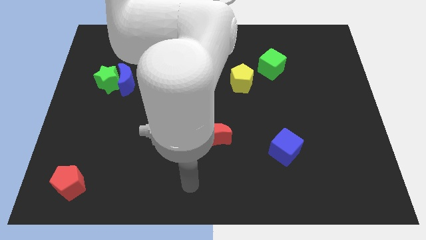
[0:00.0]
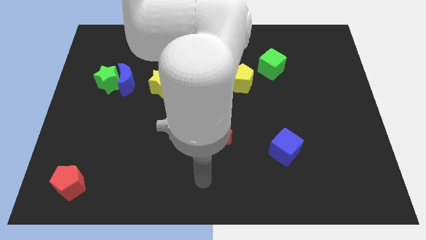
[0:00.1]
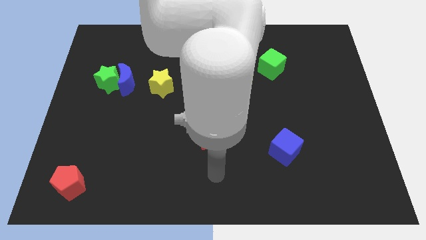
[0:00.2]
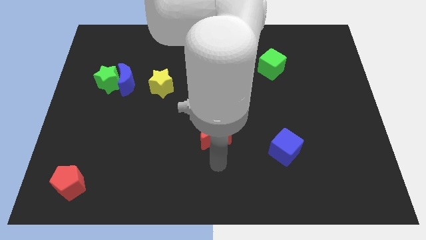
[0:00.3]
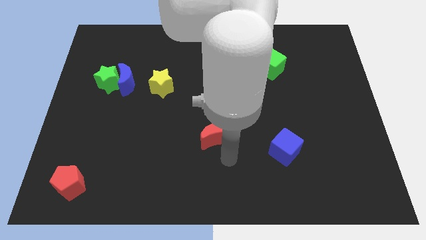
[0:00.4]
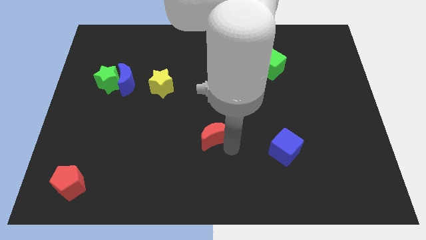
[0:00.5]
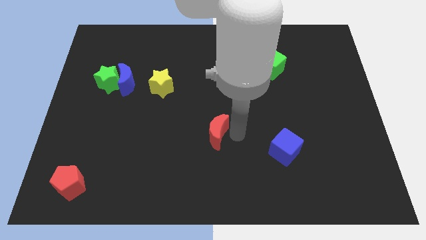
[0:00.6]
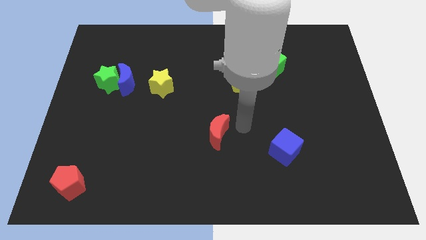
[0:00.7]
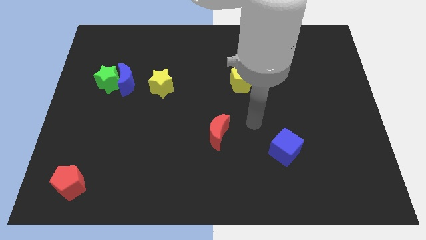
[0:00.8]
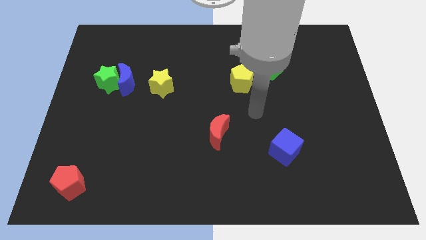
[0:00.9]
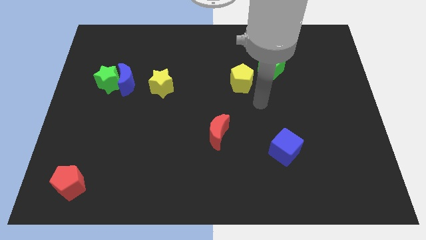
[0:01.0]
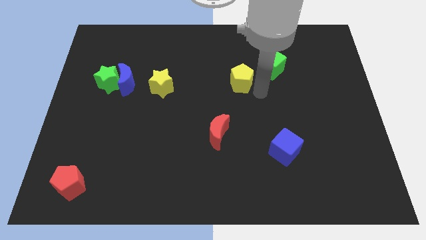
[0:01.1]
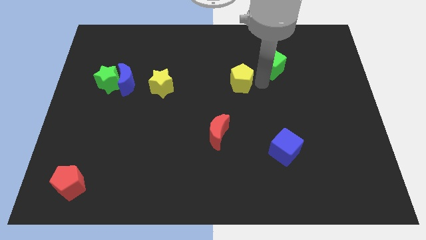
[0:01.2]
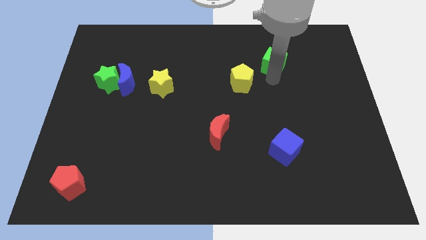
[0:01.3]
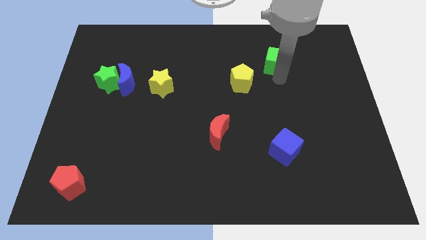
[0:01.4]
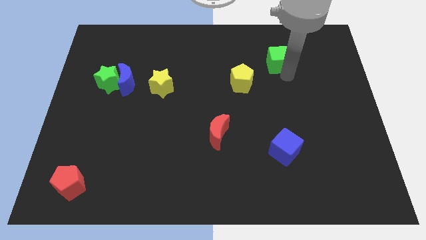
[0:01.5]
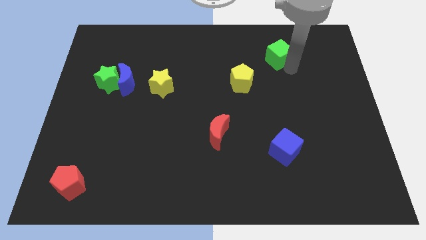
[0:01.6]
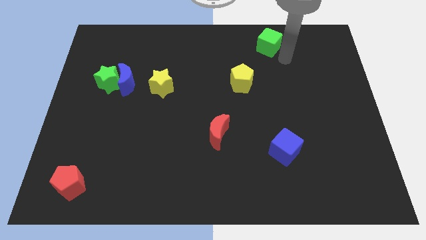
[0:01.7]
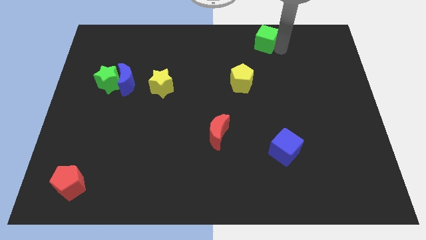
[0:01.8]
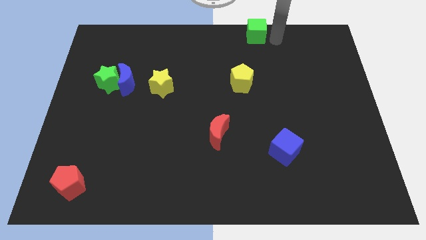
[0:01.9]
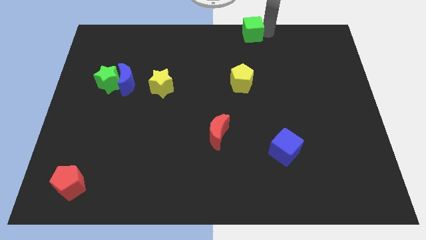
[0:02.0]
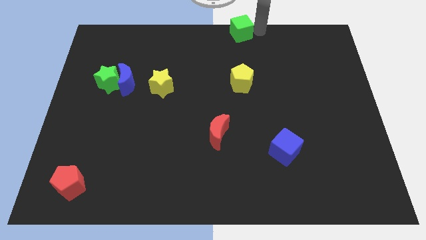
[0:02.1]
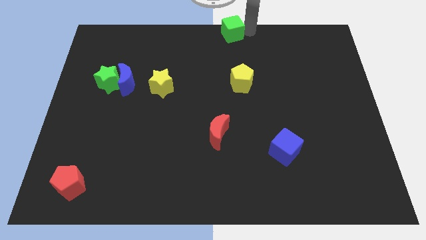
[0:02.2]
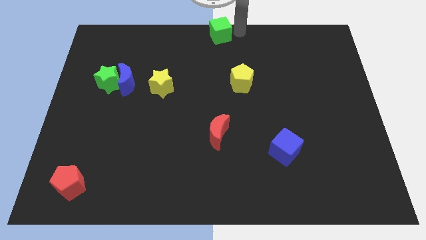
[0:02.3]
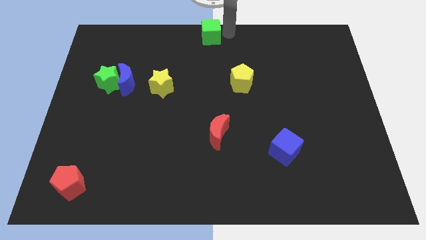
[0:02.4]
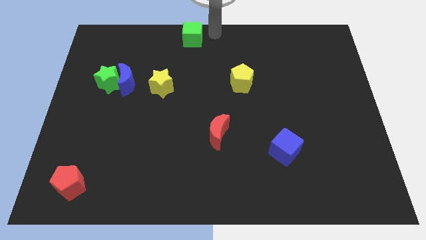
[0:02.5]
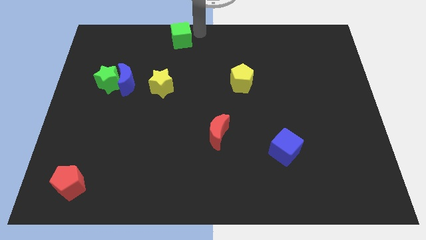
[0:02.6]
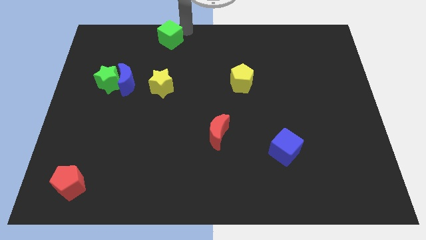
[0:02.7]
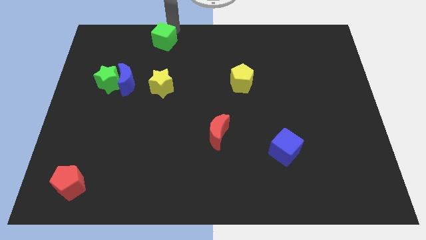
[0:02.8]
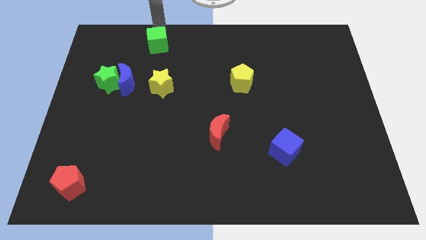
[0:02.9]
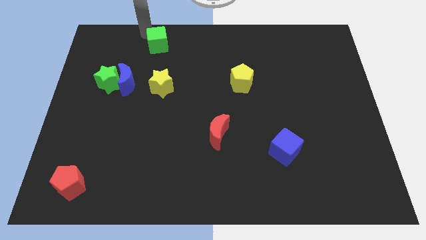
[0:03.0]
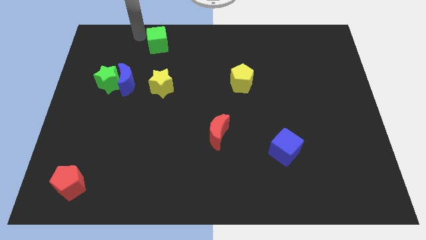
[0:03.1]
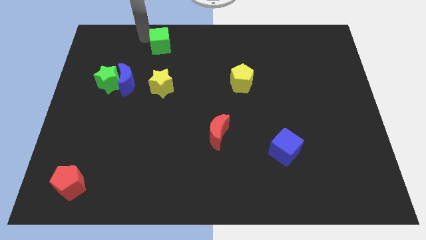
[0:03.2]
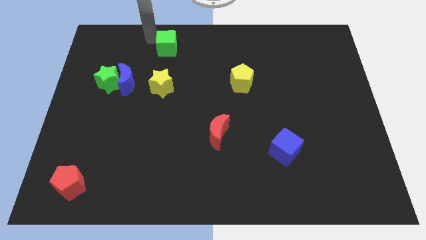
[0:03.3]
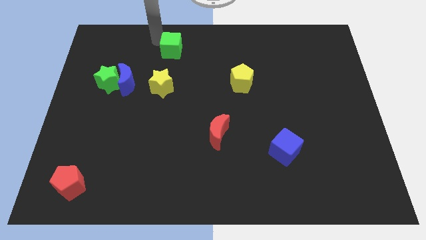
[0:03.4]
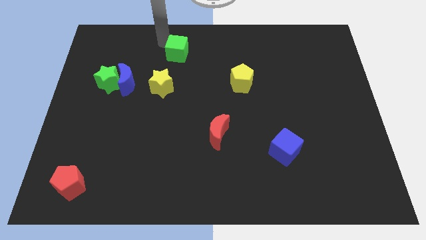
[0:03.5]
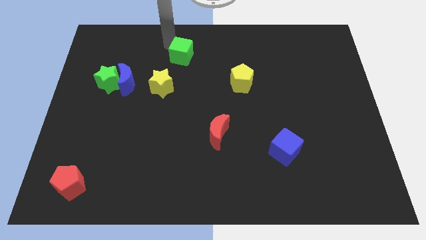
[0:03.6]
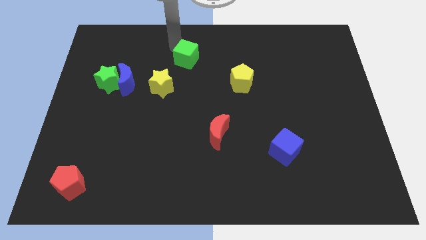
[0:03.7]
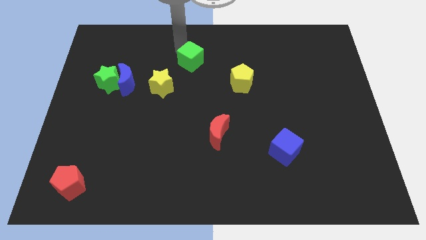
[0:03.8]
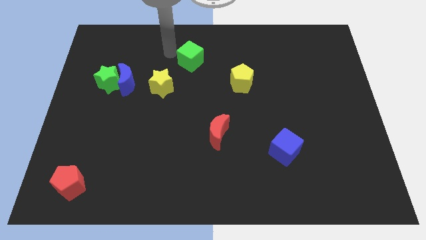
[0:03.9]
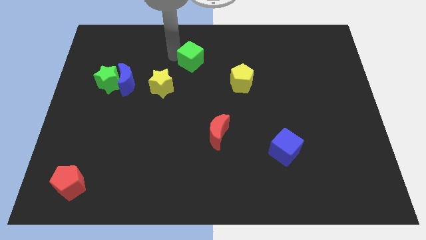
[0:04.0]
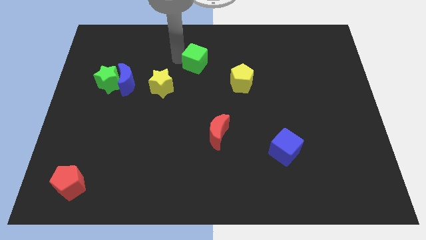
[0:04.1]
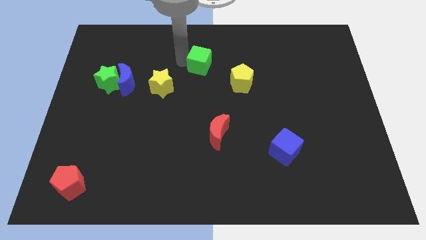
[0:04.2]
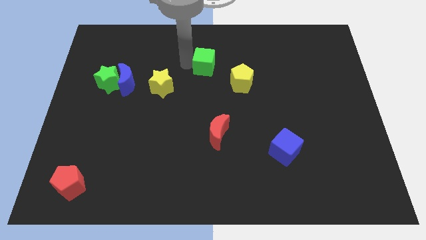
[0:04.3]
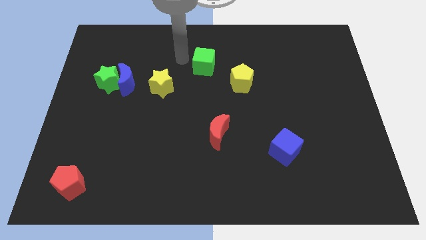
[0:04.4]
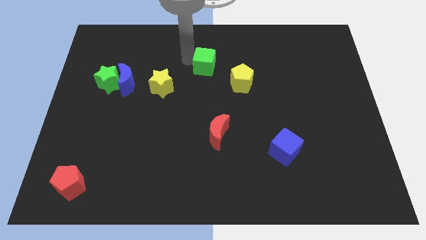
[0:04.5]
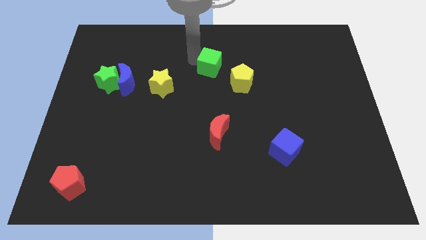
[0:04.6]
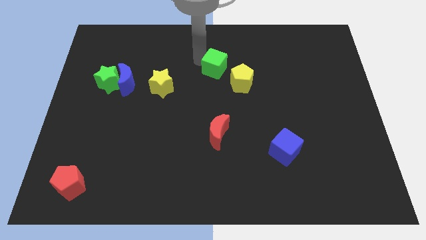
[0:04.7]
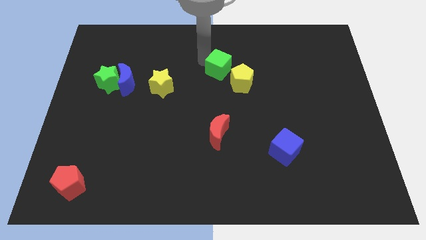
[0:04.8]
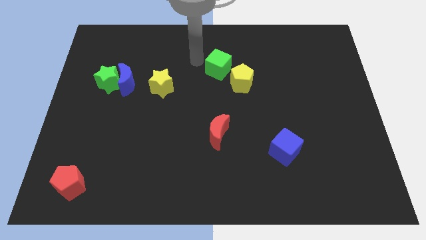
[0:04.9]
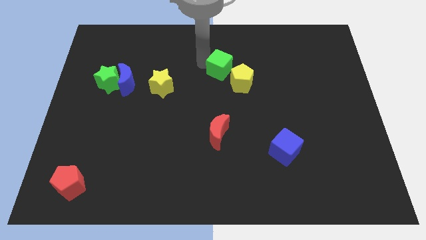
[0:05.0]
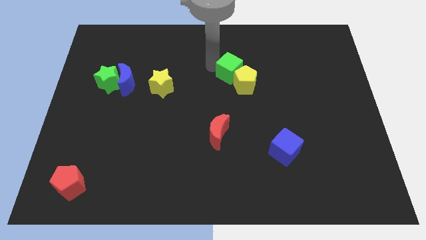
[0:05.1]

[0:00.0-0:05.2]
move the green cube downwards and then to the left a little

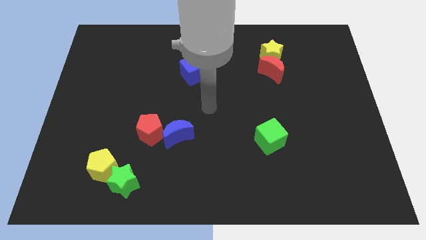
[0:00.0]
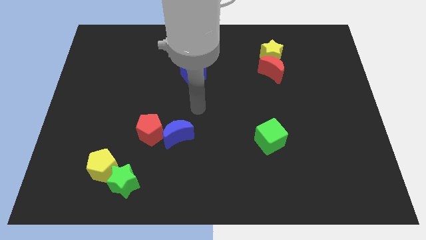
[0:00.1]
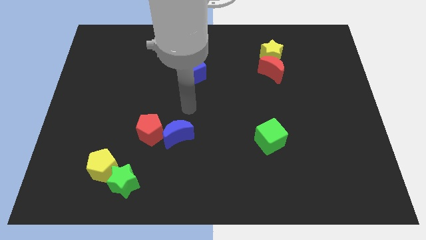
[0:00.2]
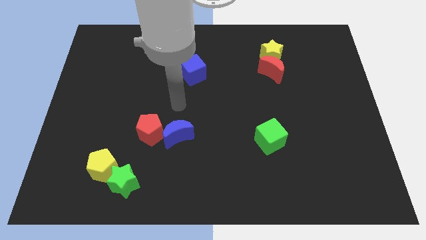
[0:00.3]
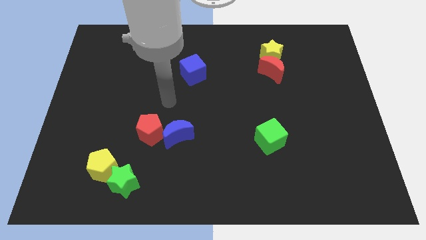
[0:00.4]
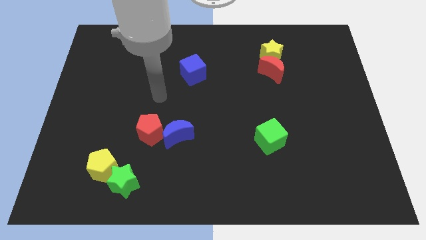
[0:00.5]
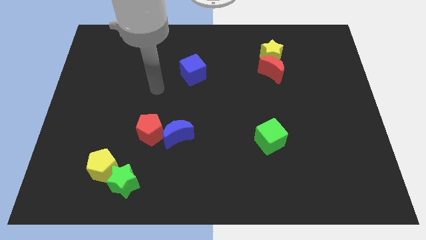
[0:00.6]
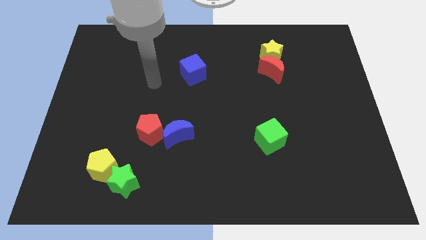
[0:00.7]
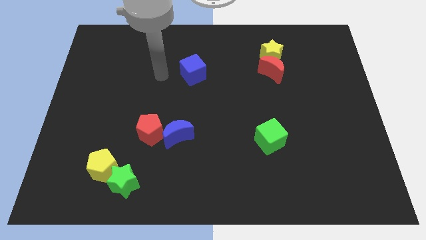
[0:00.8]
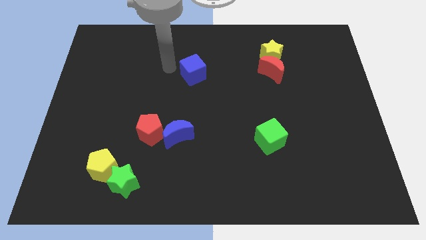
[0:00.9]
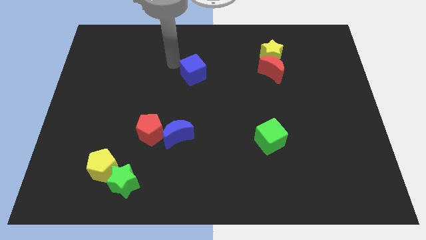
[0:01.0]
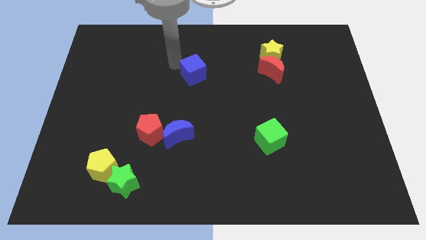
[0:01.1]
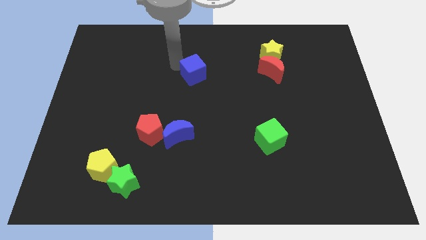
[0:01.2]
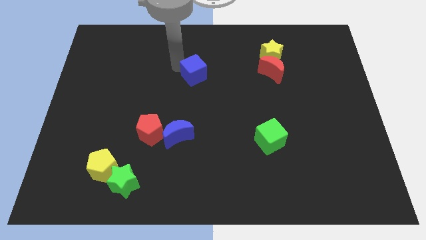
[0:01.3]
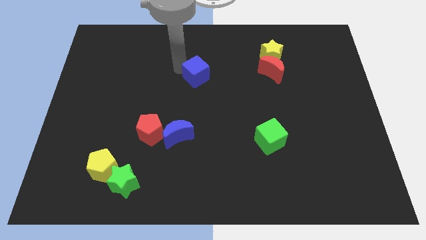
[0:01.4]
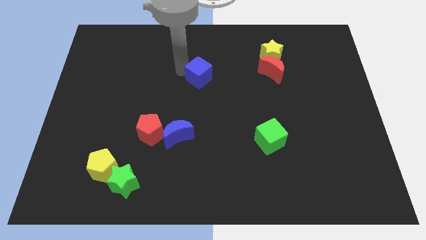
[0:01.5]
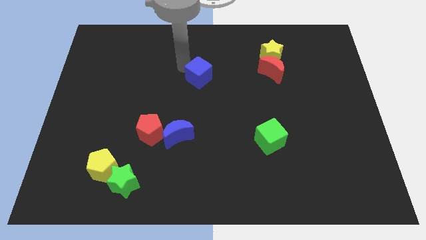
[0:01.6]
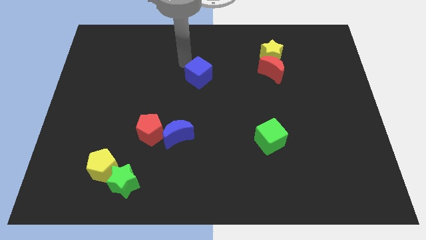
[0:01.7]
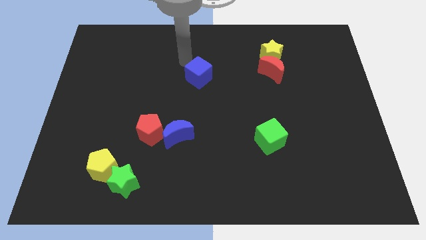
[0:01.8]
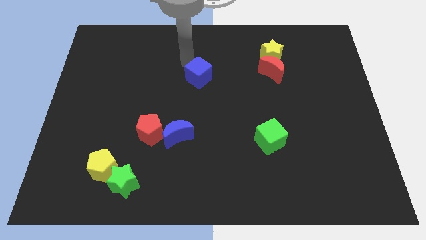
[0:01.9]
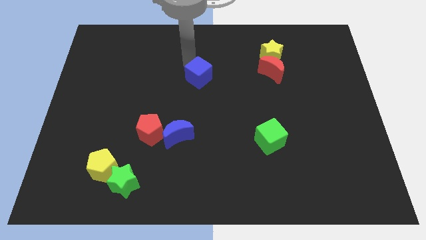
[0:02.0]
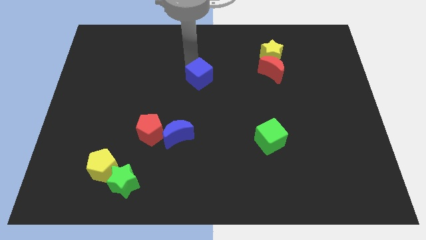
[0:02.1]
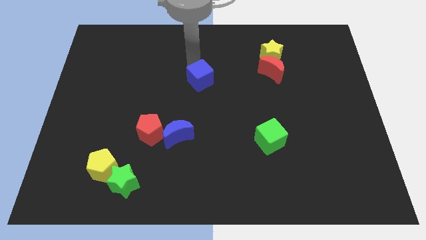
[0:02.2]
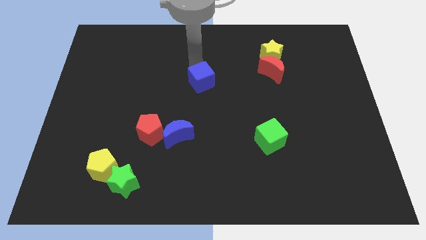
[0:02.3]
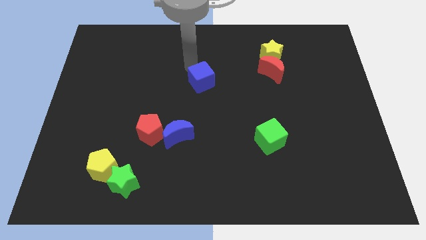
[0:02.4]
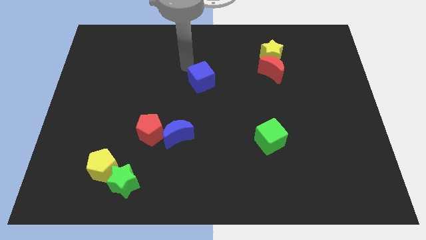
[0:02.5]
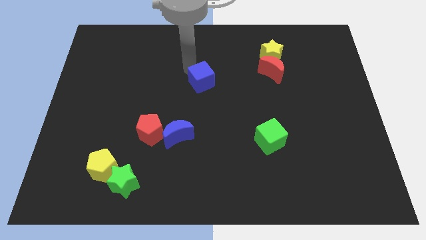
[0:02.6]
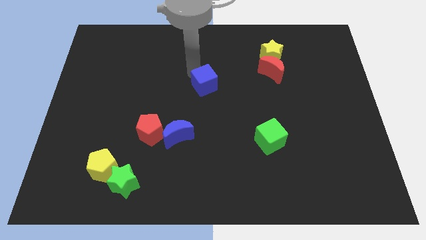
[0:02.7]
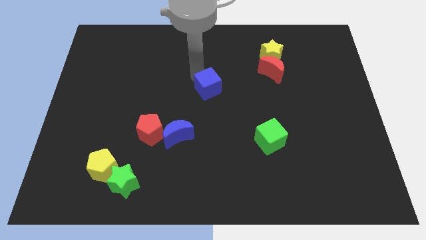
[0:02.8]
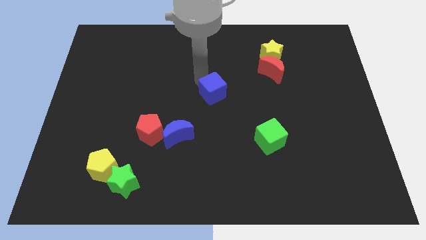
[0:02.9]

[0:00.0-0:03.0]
slide the blue cube a little downwards and then to the right
